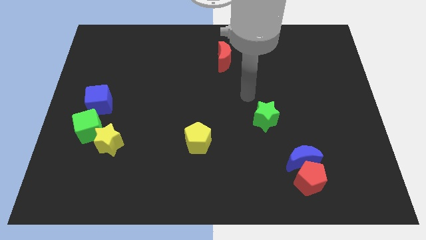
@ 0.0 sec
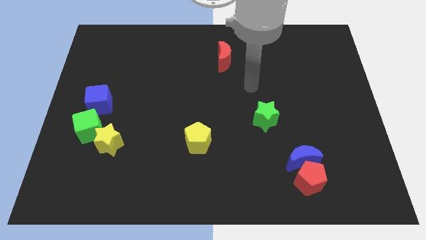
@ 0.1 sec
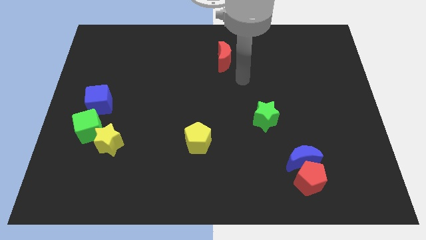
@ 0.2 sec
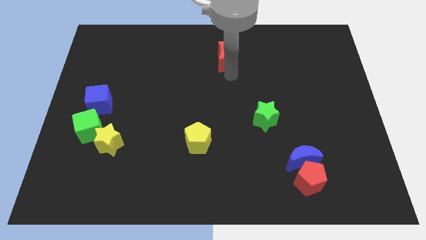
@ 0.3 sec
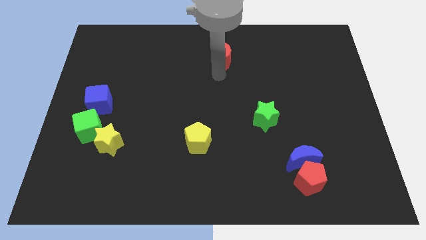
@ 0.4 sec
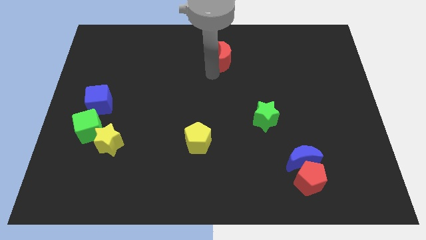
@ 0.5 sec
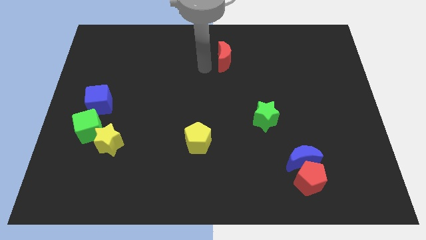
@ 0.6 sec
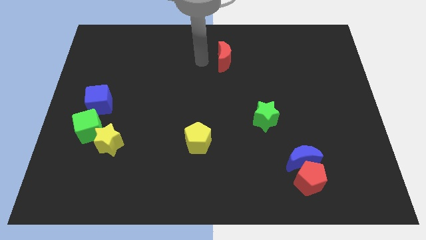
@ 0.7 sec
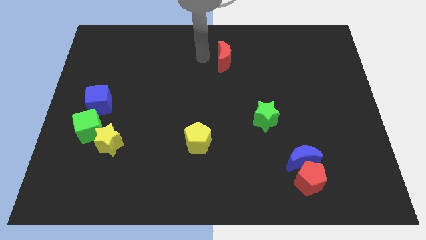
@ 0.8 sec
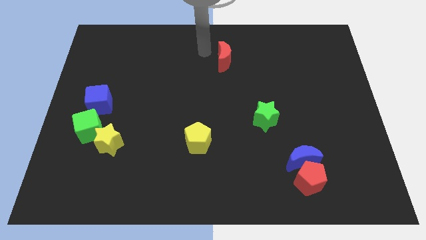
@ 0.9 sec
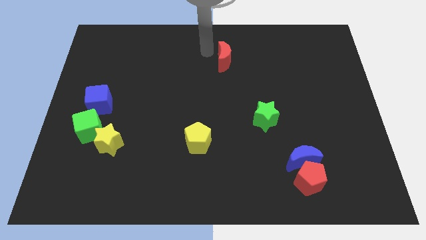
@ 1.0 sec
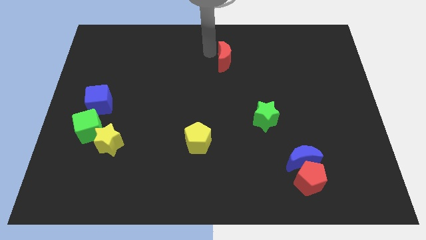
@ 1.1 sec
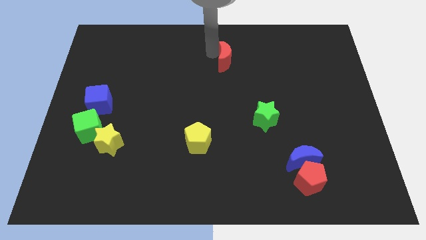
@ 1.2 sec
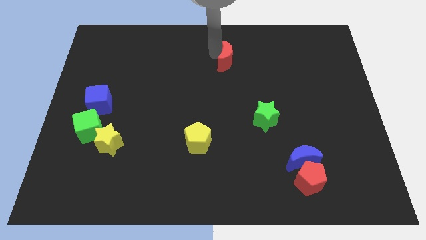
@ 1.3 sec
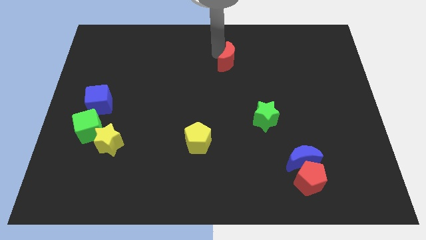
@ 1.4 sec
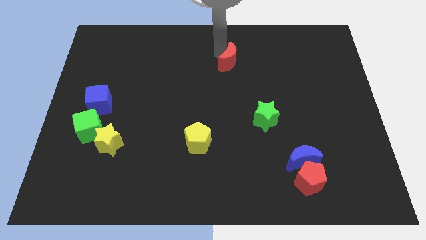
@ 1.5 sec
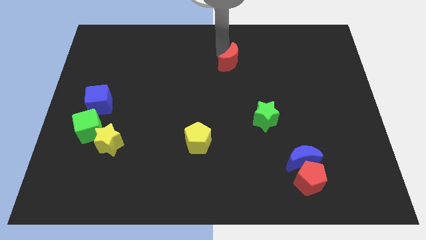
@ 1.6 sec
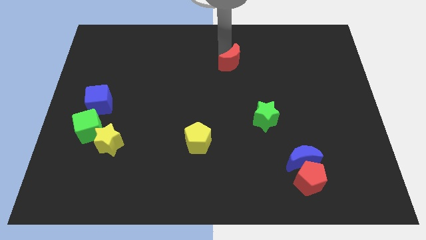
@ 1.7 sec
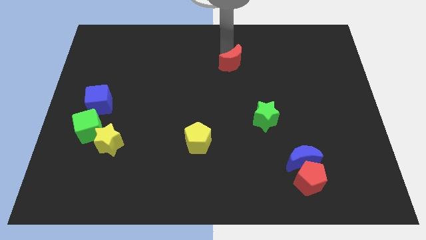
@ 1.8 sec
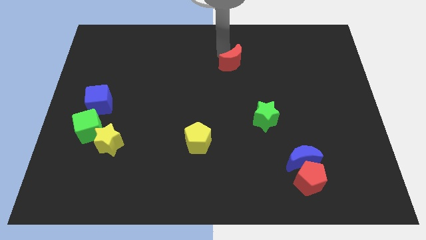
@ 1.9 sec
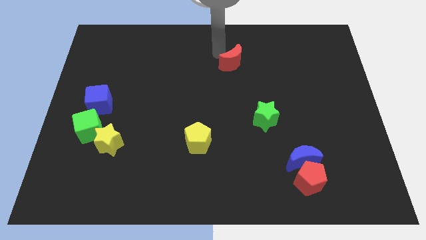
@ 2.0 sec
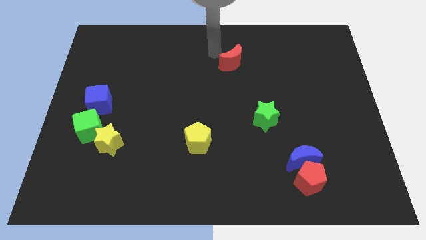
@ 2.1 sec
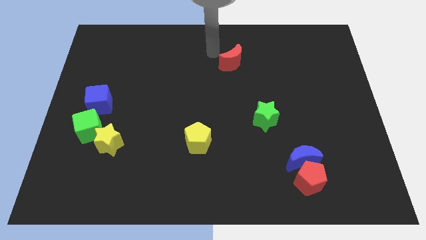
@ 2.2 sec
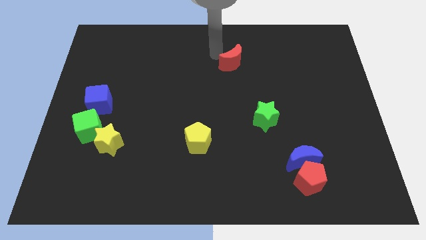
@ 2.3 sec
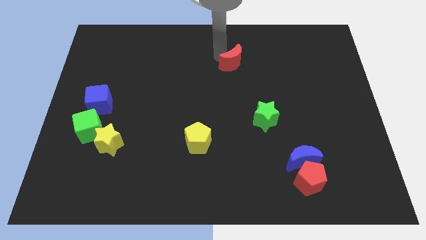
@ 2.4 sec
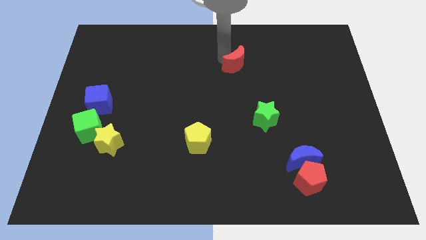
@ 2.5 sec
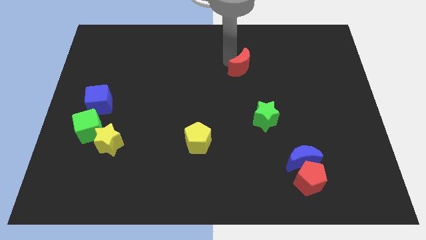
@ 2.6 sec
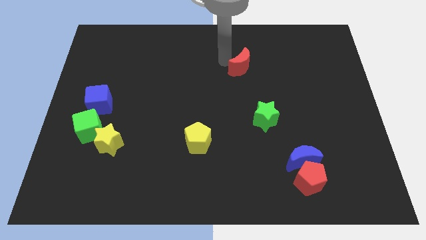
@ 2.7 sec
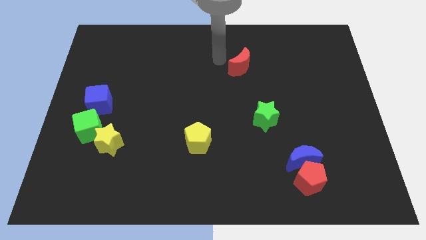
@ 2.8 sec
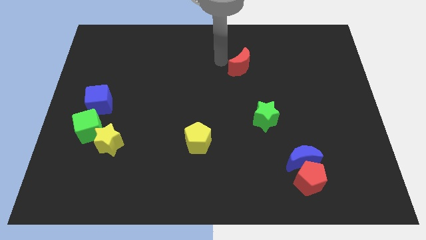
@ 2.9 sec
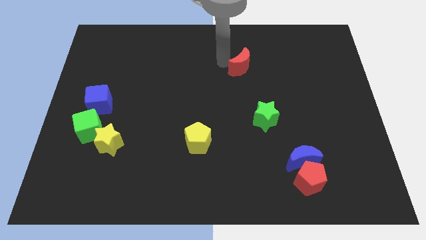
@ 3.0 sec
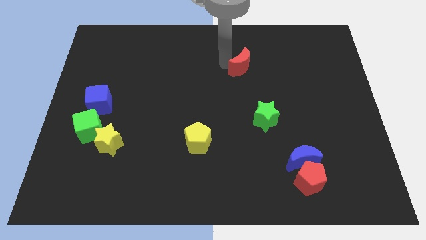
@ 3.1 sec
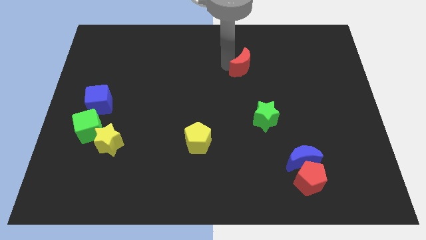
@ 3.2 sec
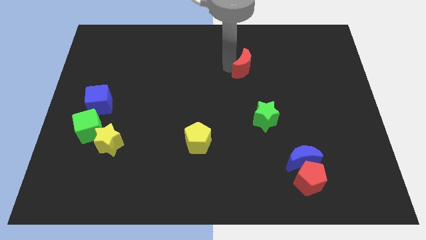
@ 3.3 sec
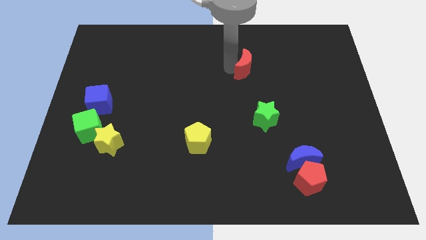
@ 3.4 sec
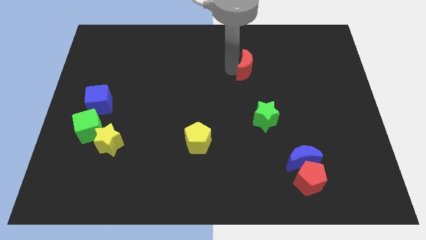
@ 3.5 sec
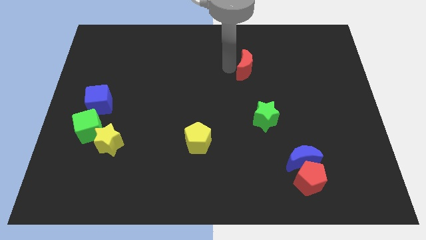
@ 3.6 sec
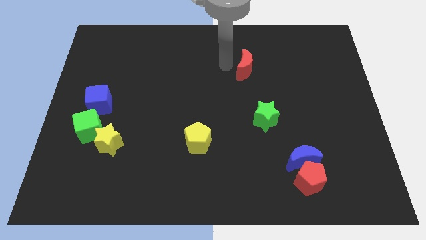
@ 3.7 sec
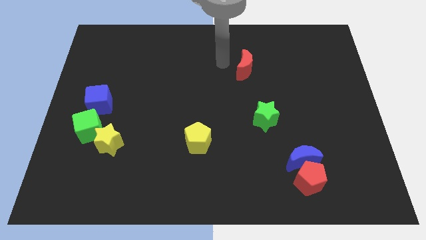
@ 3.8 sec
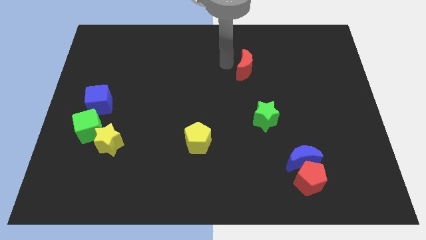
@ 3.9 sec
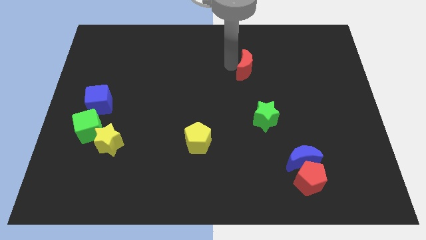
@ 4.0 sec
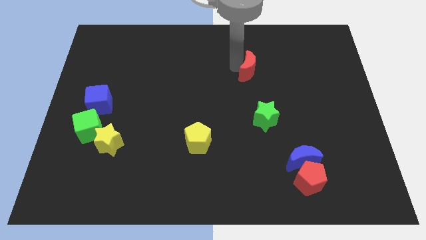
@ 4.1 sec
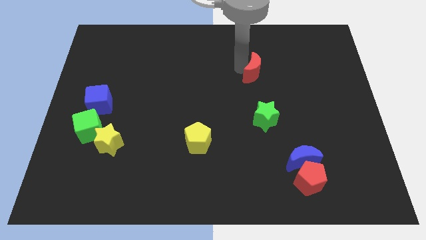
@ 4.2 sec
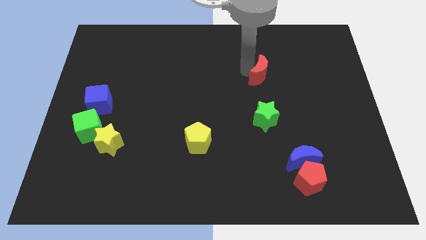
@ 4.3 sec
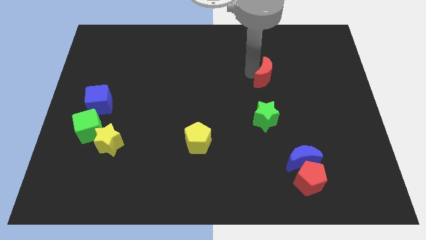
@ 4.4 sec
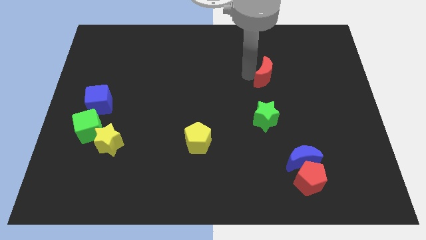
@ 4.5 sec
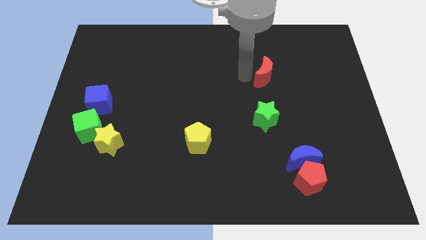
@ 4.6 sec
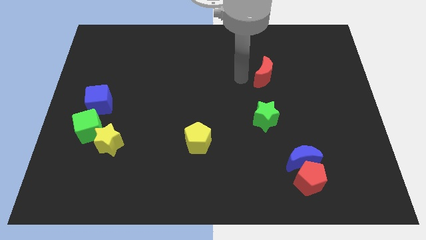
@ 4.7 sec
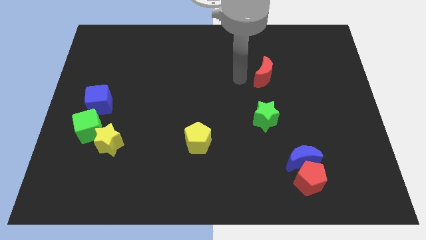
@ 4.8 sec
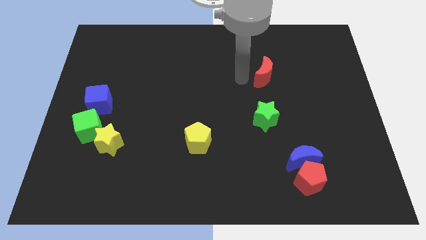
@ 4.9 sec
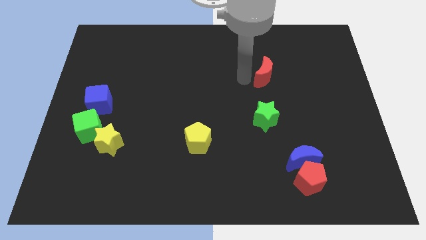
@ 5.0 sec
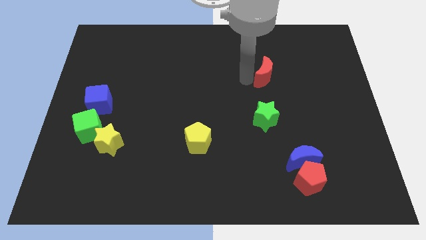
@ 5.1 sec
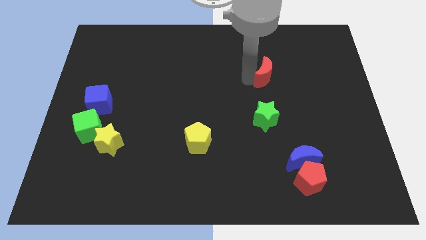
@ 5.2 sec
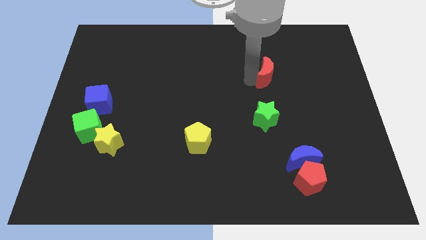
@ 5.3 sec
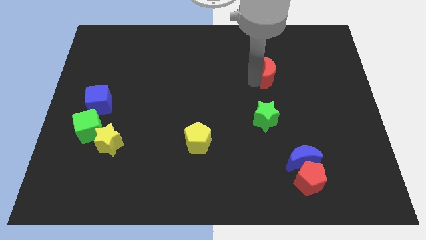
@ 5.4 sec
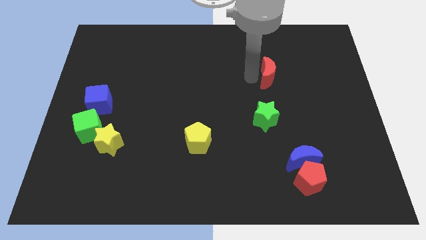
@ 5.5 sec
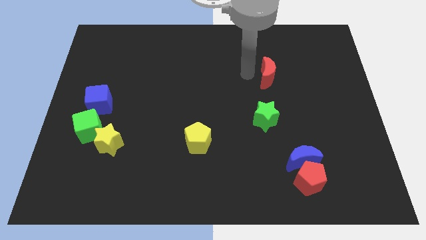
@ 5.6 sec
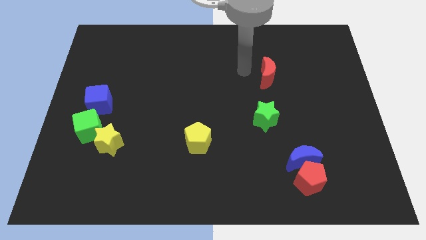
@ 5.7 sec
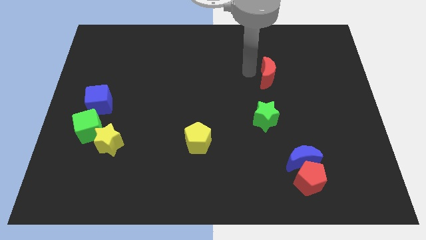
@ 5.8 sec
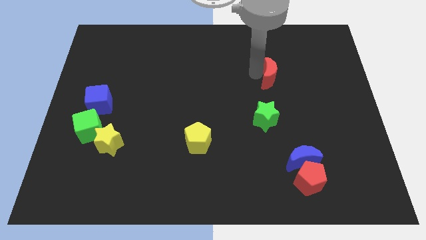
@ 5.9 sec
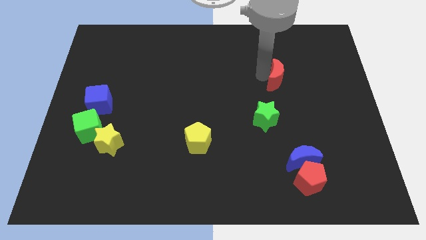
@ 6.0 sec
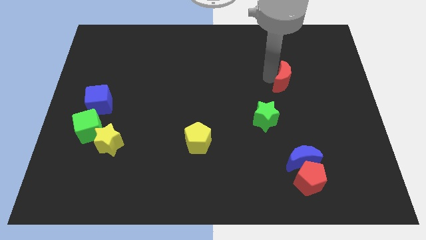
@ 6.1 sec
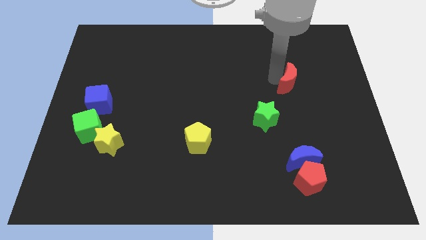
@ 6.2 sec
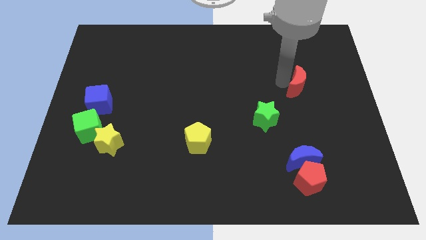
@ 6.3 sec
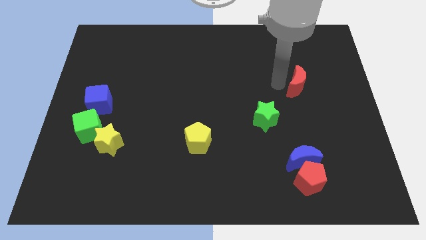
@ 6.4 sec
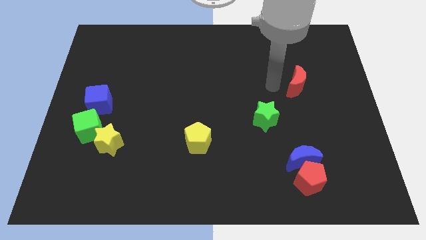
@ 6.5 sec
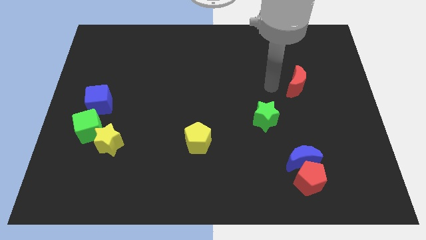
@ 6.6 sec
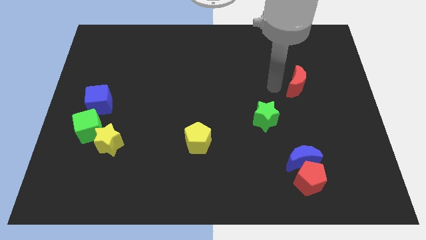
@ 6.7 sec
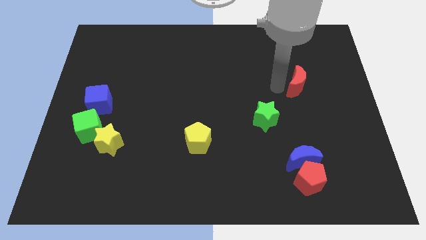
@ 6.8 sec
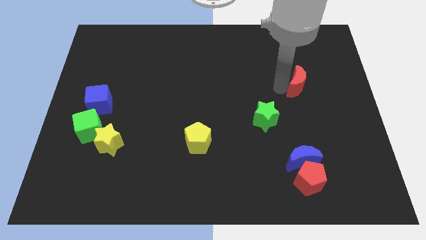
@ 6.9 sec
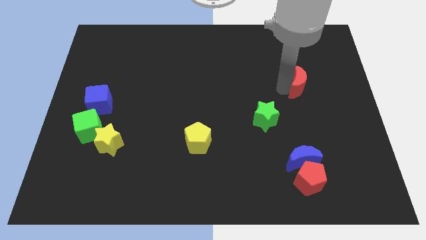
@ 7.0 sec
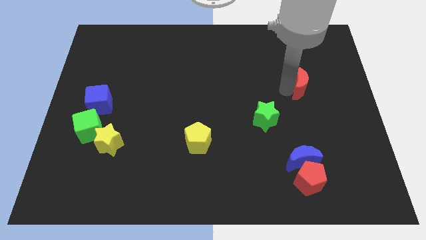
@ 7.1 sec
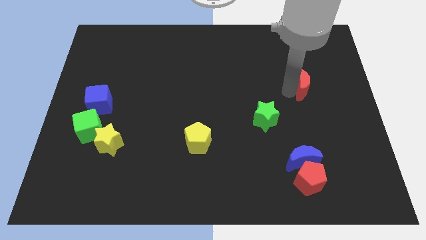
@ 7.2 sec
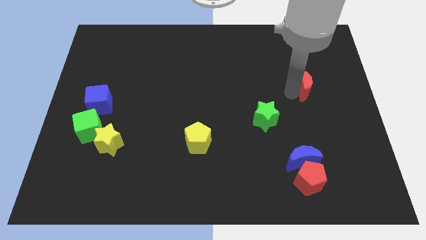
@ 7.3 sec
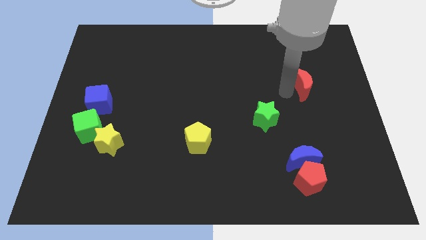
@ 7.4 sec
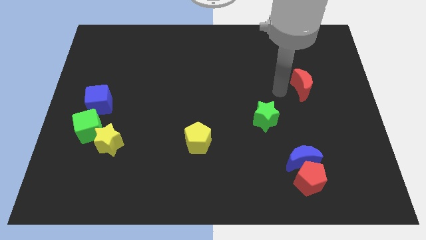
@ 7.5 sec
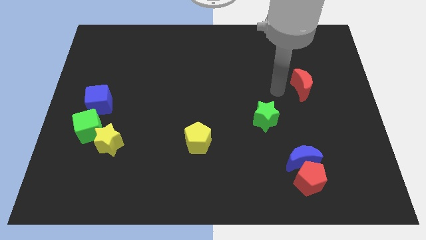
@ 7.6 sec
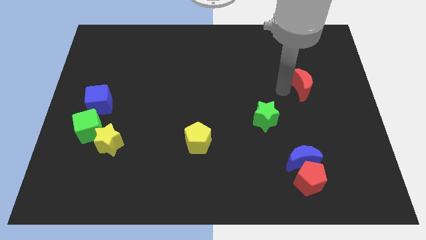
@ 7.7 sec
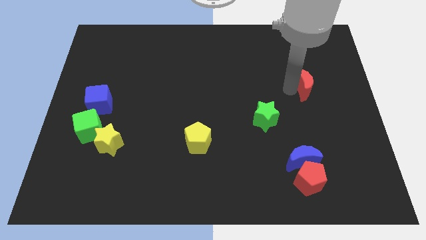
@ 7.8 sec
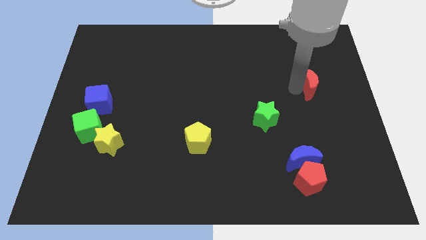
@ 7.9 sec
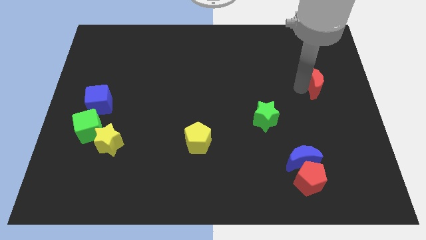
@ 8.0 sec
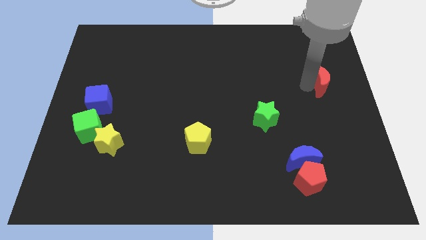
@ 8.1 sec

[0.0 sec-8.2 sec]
move the red moon to the right side
